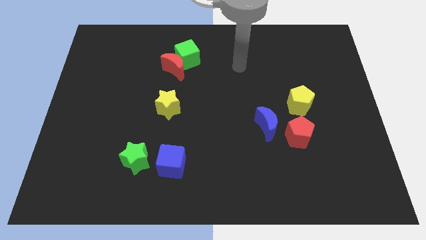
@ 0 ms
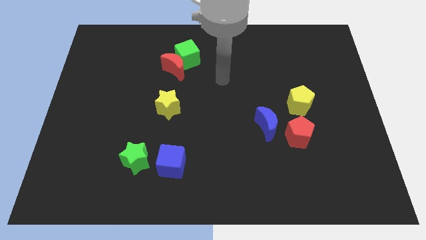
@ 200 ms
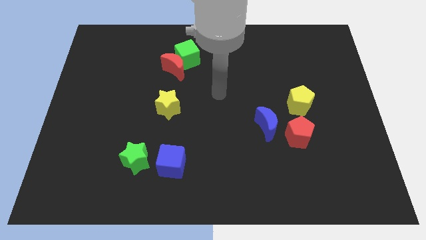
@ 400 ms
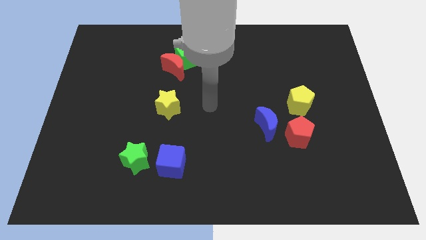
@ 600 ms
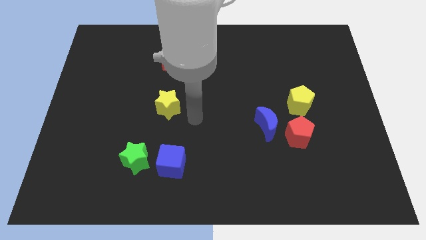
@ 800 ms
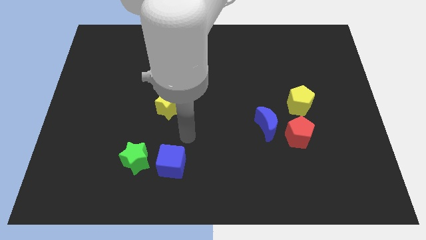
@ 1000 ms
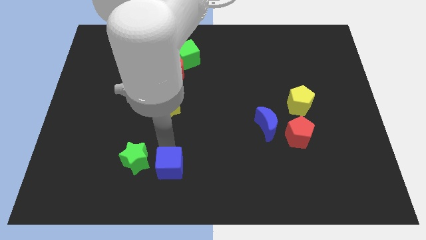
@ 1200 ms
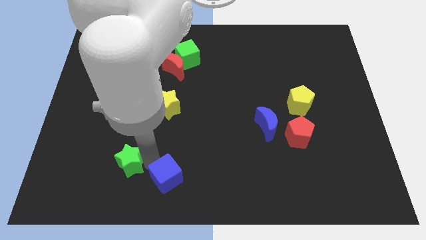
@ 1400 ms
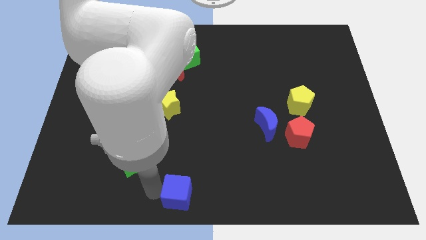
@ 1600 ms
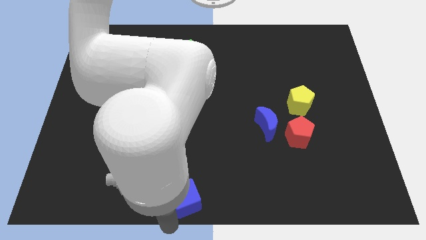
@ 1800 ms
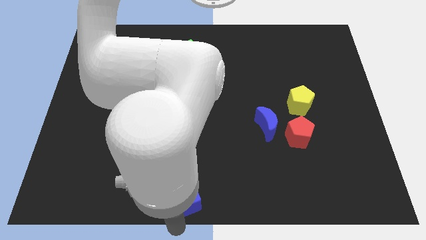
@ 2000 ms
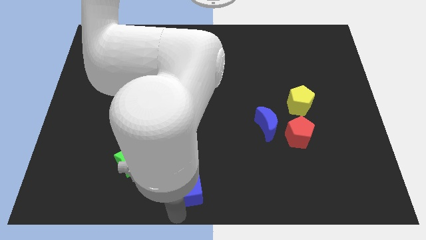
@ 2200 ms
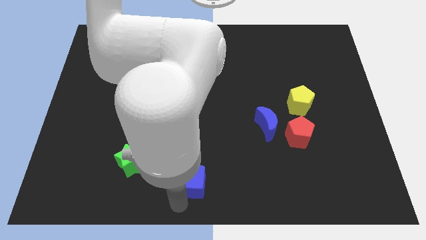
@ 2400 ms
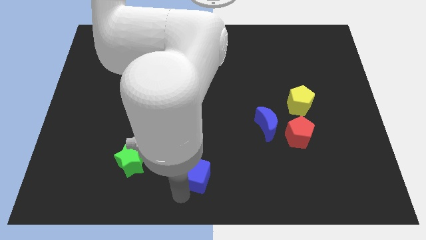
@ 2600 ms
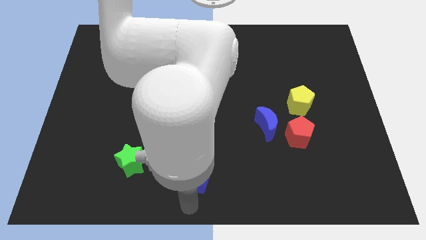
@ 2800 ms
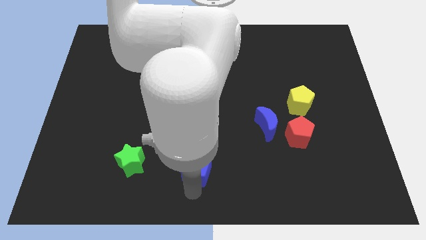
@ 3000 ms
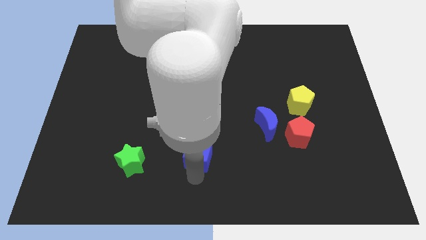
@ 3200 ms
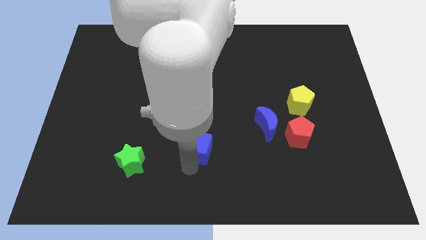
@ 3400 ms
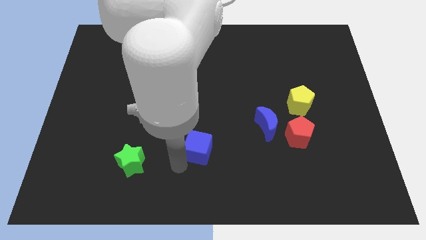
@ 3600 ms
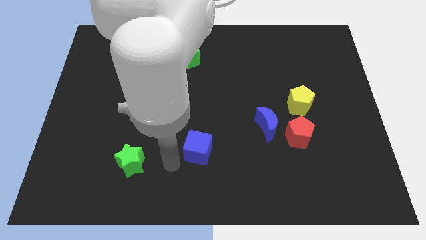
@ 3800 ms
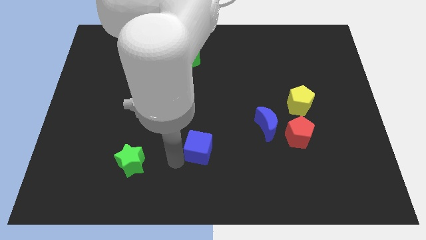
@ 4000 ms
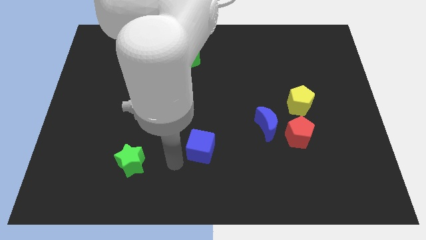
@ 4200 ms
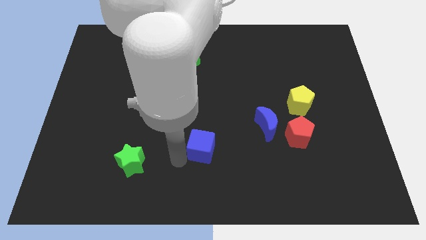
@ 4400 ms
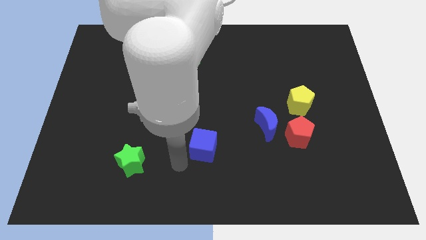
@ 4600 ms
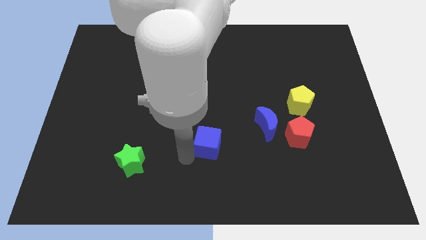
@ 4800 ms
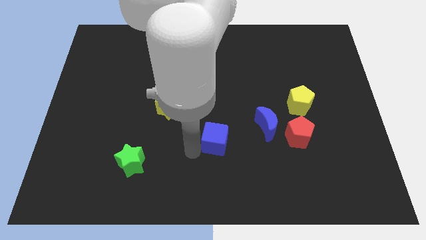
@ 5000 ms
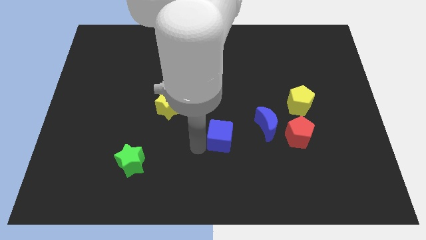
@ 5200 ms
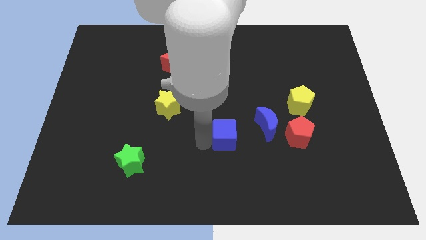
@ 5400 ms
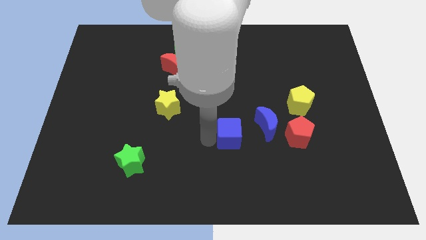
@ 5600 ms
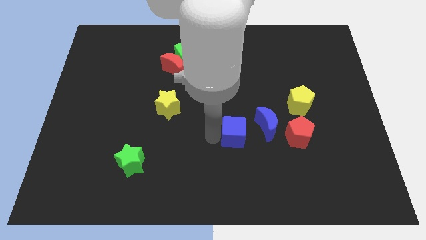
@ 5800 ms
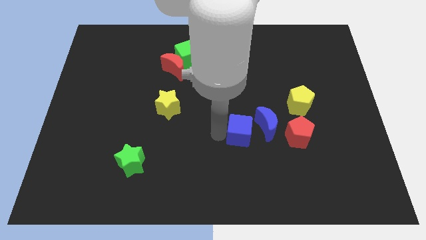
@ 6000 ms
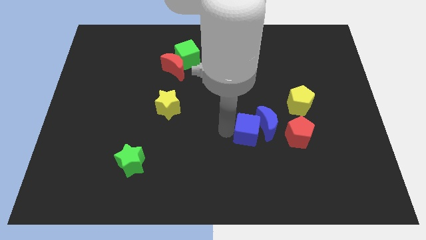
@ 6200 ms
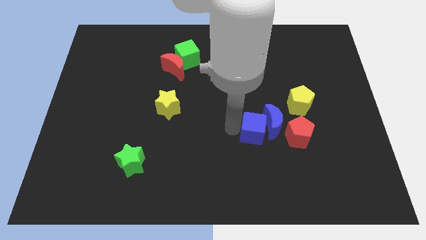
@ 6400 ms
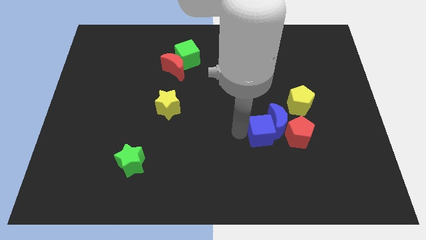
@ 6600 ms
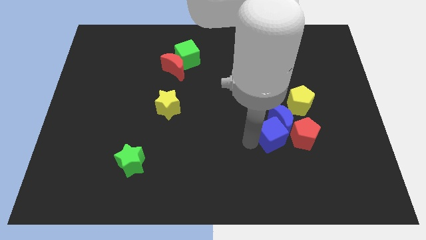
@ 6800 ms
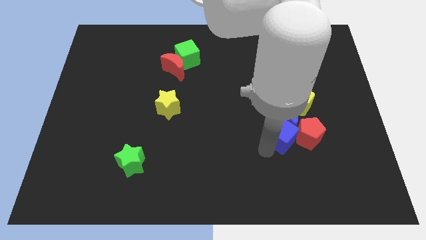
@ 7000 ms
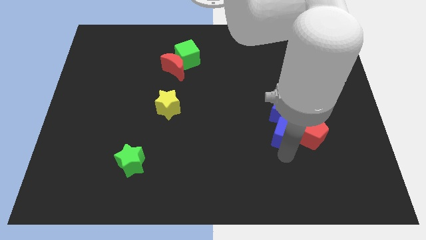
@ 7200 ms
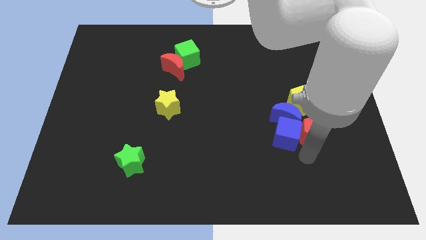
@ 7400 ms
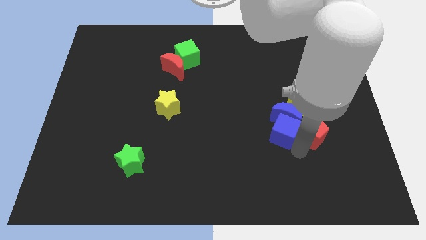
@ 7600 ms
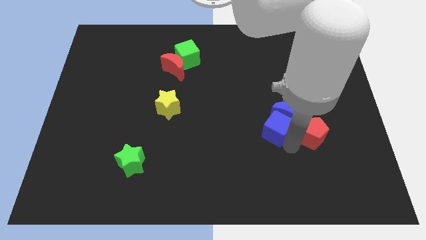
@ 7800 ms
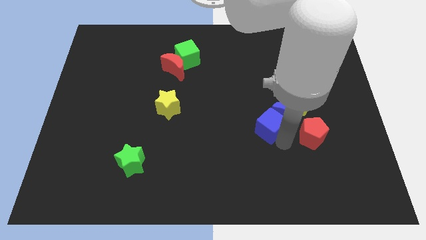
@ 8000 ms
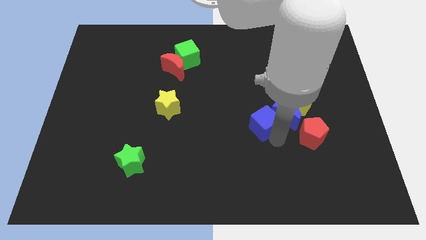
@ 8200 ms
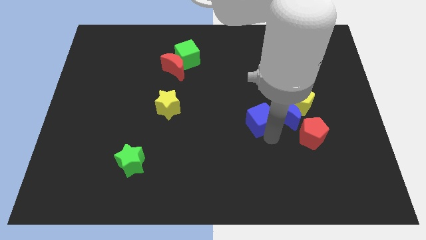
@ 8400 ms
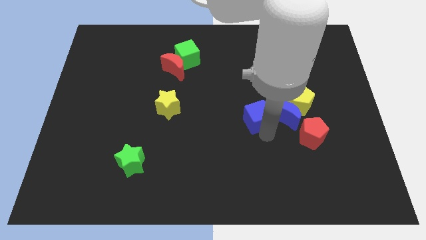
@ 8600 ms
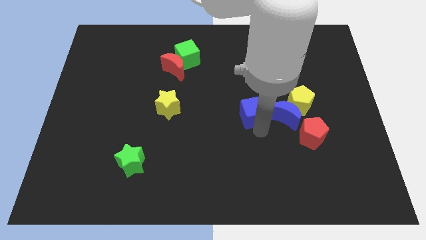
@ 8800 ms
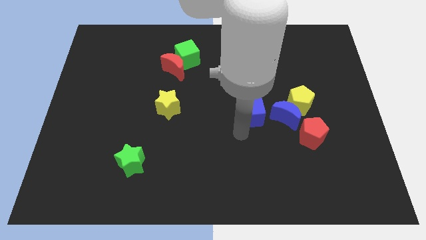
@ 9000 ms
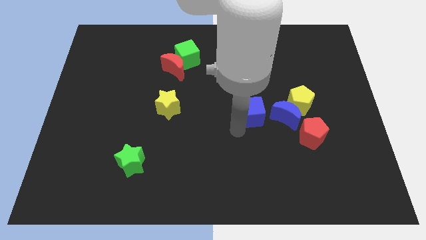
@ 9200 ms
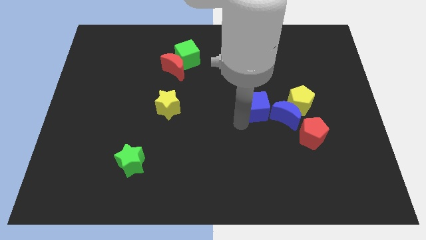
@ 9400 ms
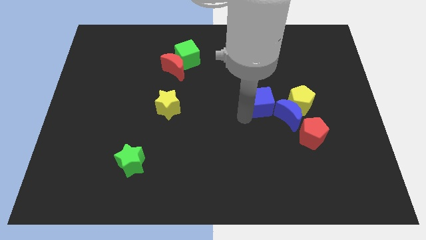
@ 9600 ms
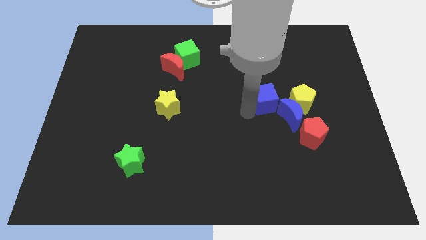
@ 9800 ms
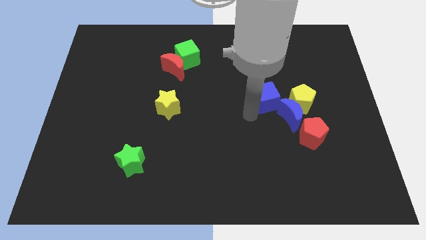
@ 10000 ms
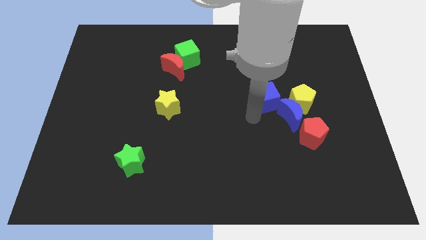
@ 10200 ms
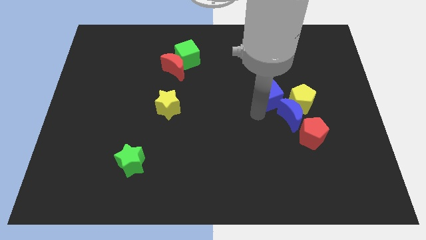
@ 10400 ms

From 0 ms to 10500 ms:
move the blue cube to the top left side of the yellow pentagon

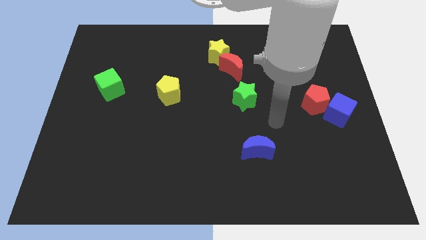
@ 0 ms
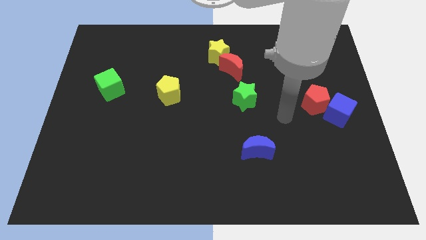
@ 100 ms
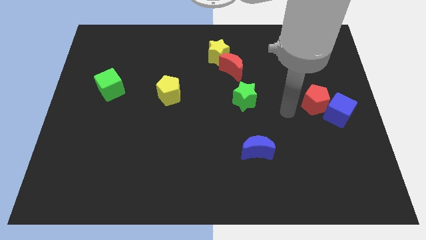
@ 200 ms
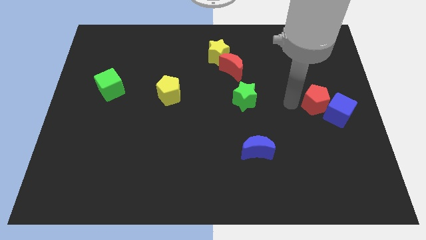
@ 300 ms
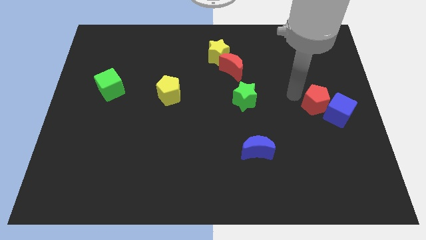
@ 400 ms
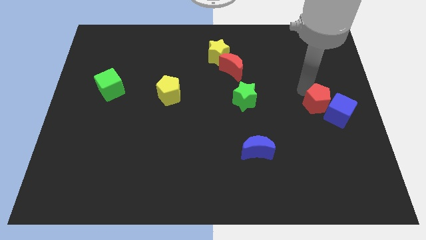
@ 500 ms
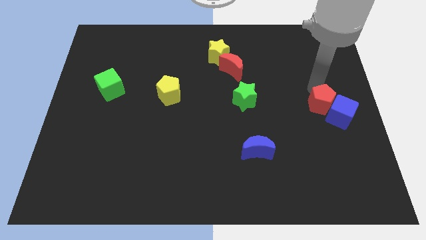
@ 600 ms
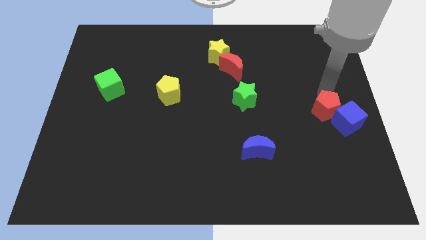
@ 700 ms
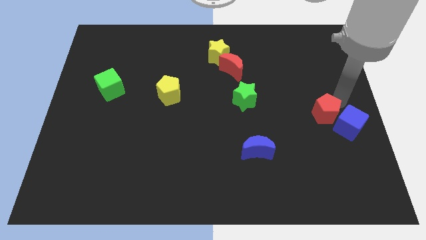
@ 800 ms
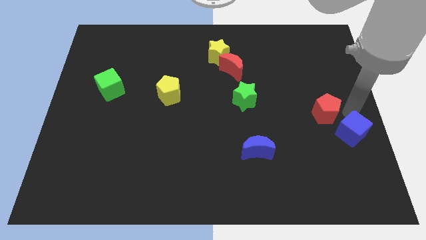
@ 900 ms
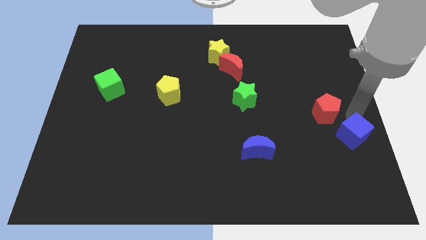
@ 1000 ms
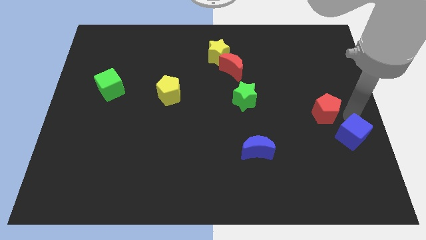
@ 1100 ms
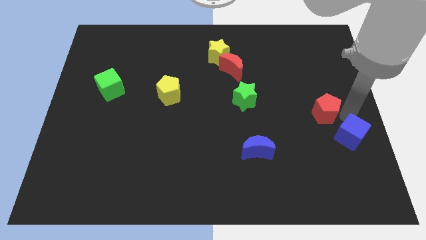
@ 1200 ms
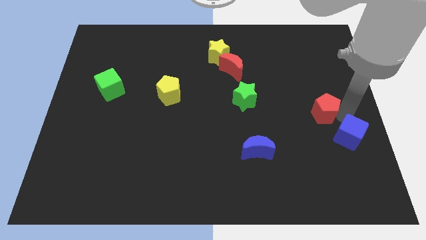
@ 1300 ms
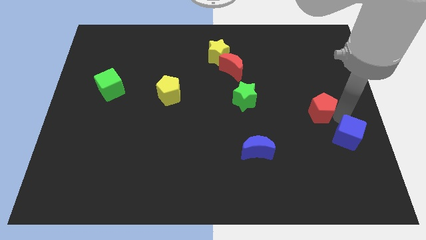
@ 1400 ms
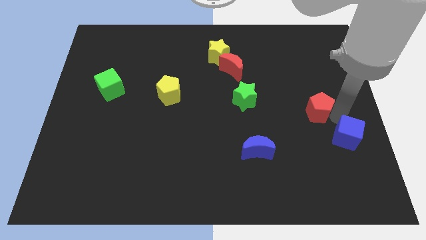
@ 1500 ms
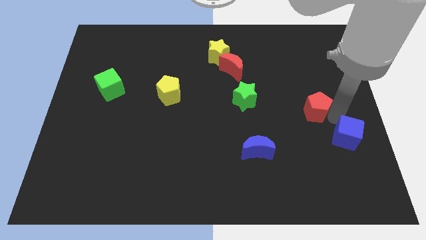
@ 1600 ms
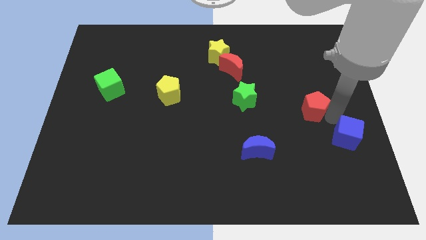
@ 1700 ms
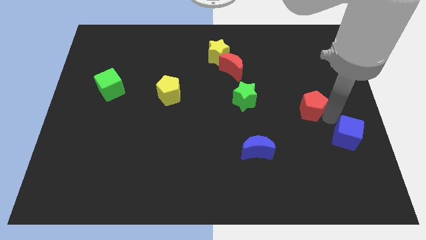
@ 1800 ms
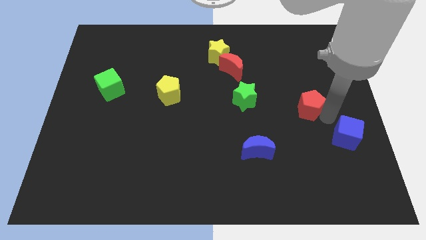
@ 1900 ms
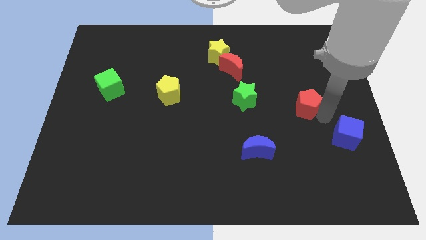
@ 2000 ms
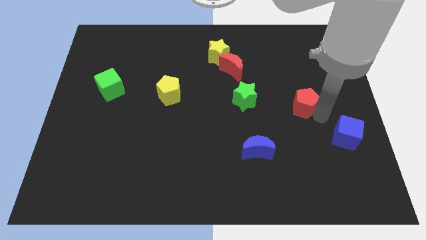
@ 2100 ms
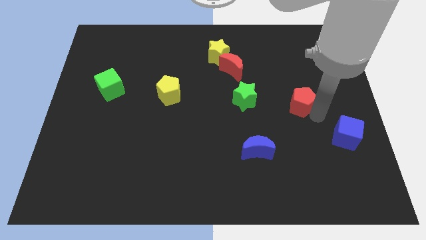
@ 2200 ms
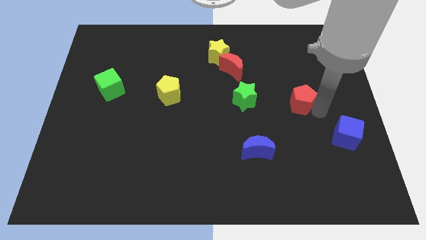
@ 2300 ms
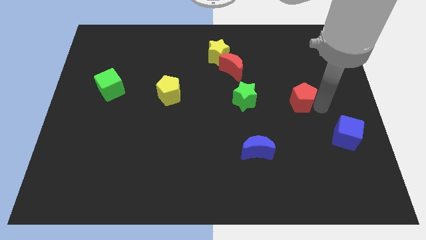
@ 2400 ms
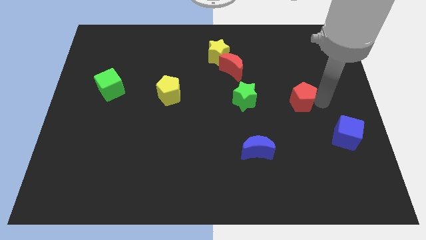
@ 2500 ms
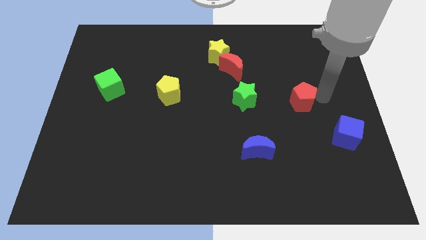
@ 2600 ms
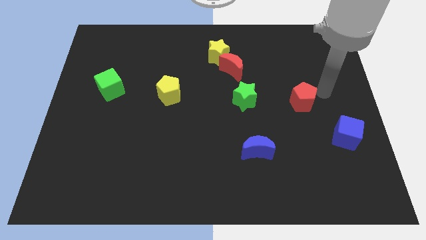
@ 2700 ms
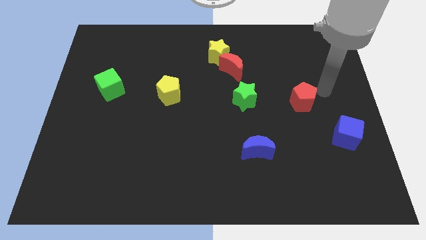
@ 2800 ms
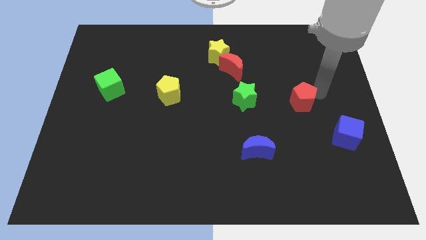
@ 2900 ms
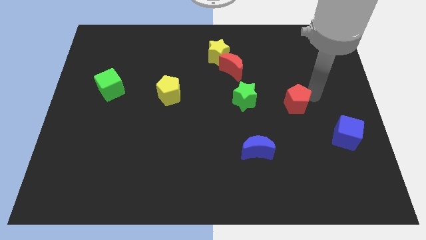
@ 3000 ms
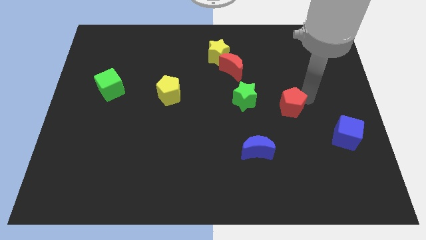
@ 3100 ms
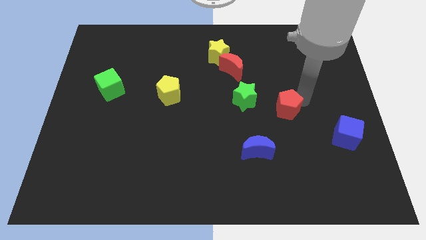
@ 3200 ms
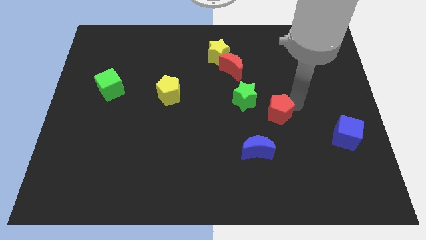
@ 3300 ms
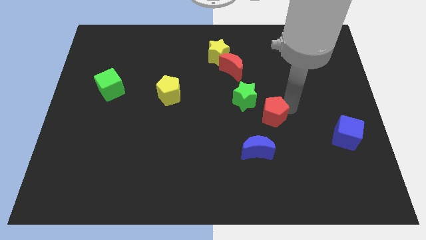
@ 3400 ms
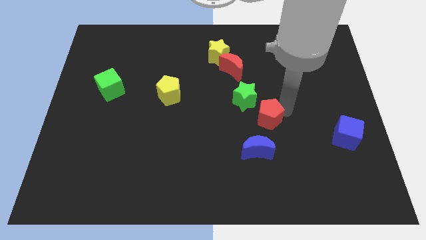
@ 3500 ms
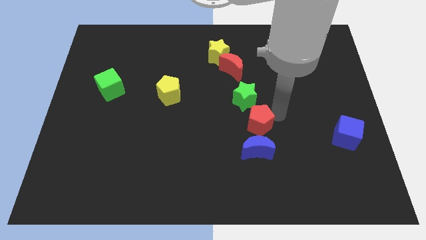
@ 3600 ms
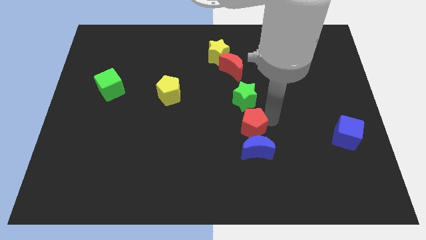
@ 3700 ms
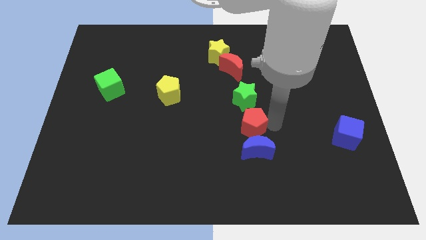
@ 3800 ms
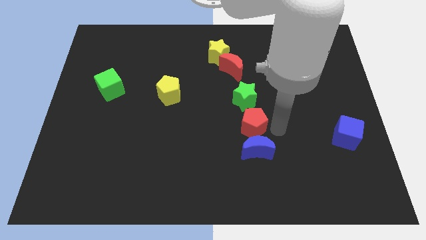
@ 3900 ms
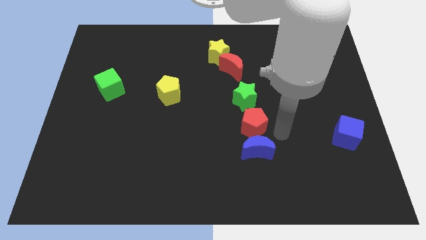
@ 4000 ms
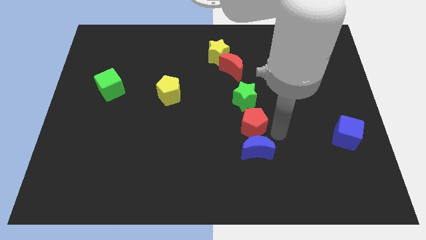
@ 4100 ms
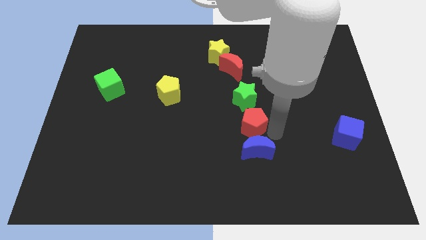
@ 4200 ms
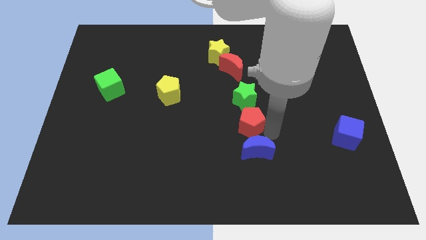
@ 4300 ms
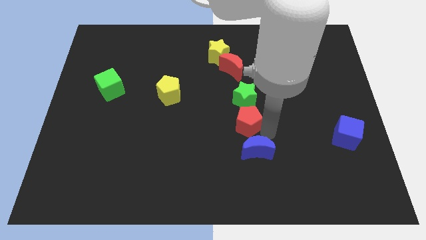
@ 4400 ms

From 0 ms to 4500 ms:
slide the red pentagon diagonally down and to the left of the green star
